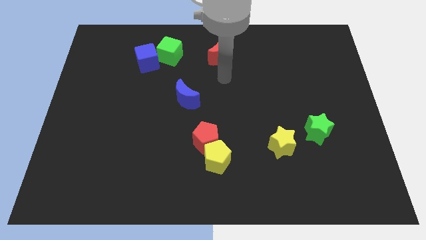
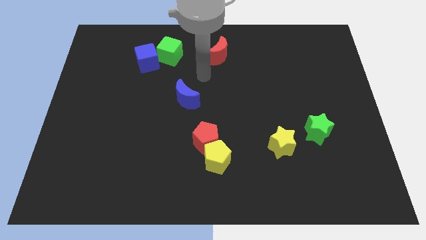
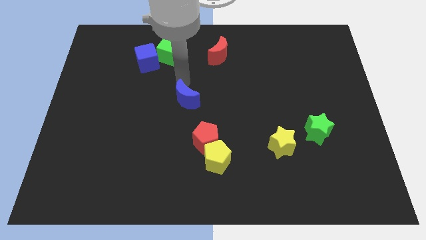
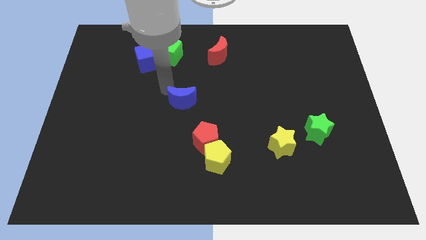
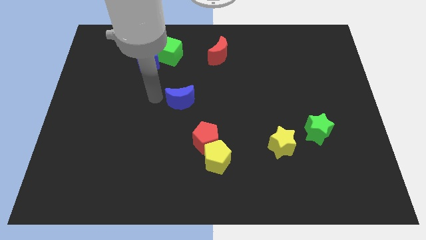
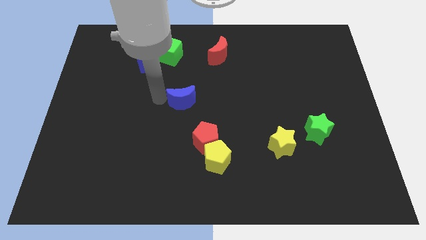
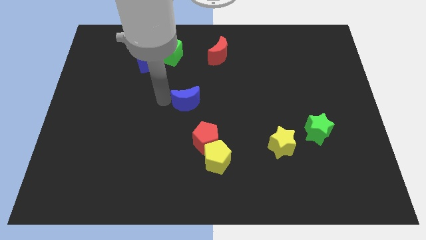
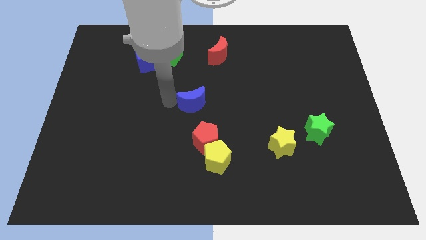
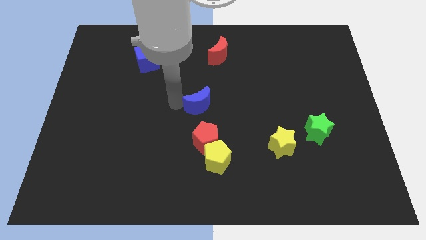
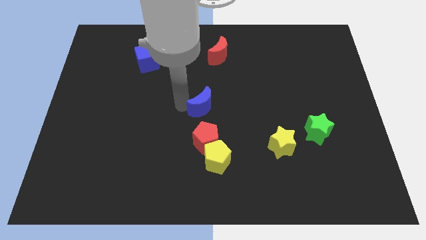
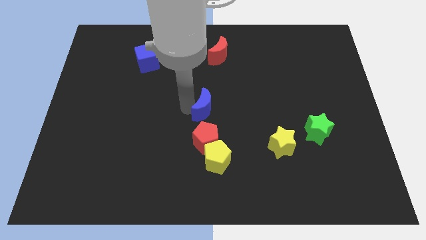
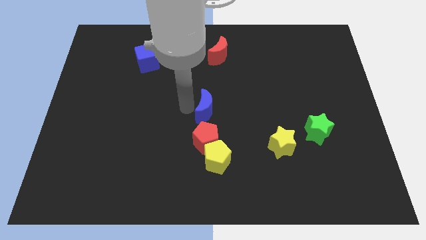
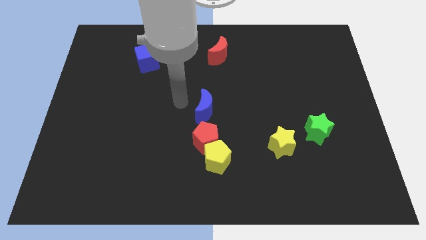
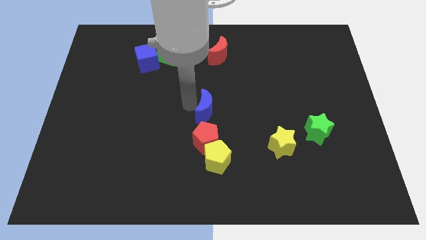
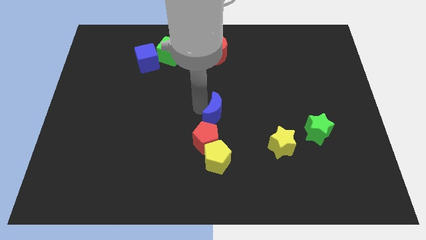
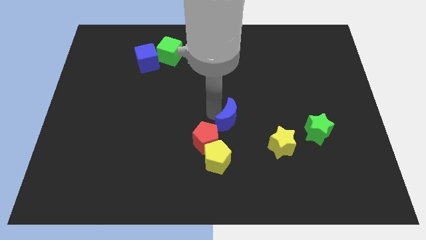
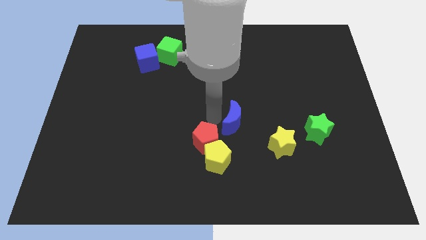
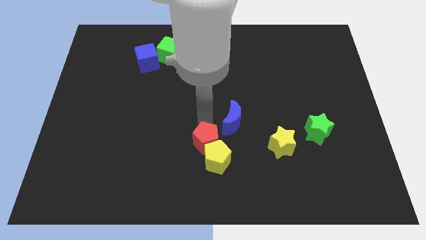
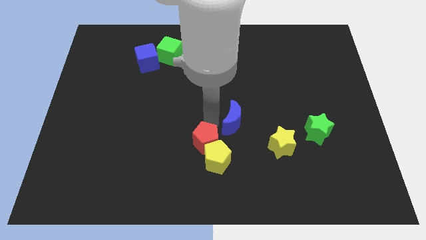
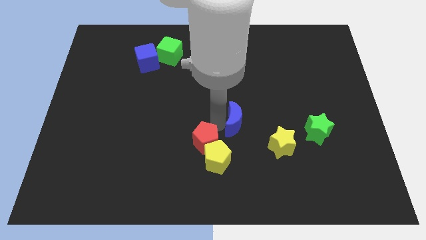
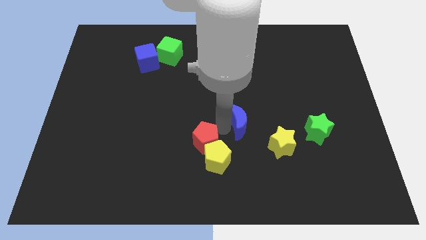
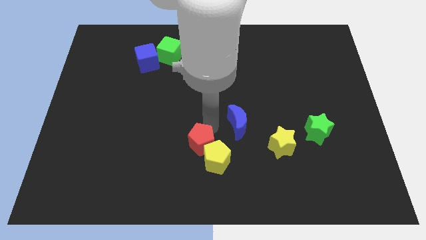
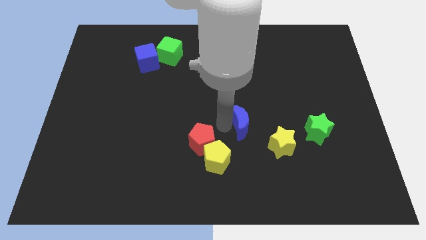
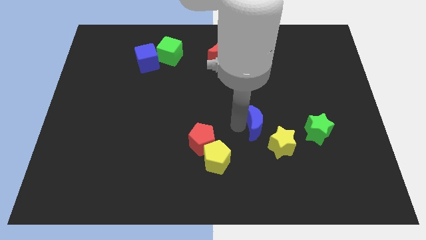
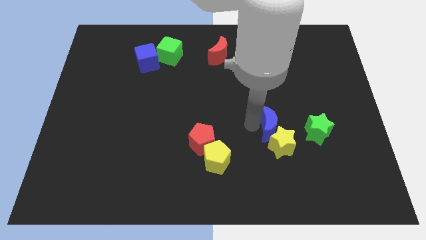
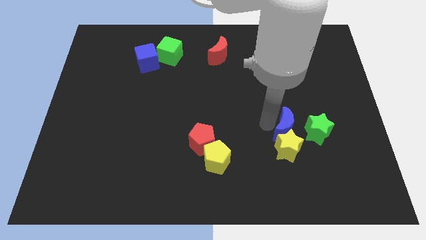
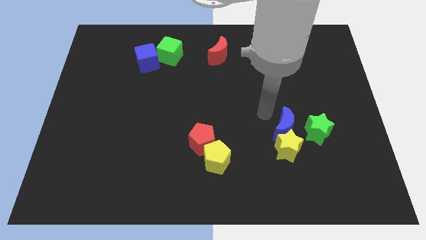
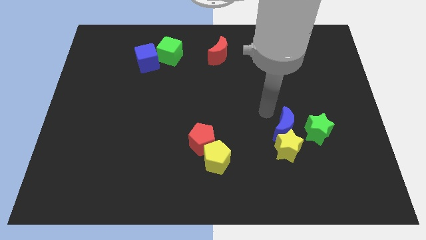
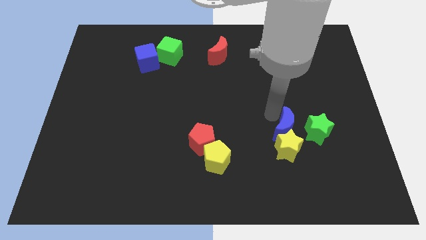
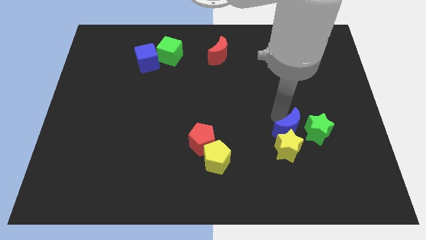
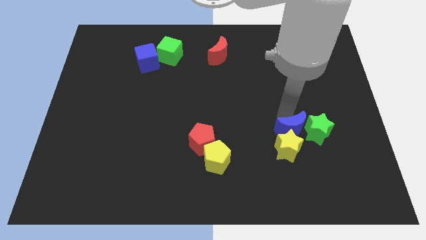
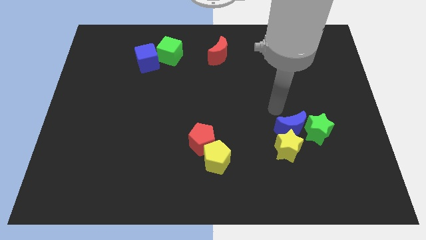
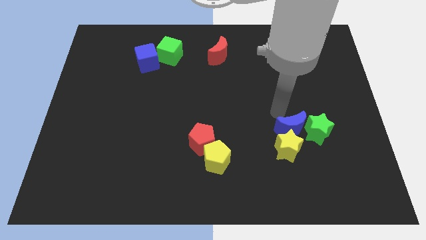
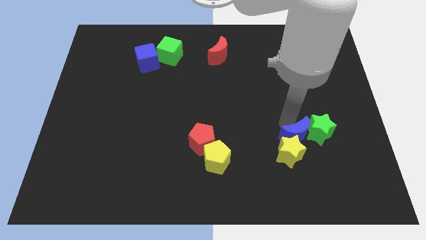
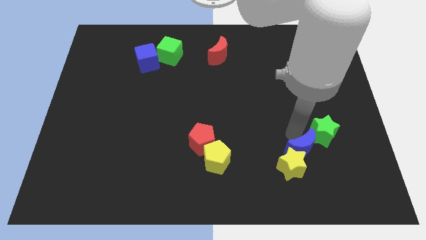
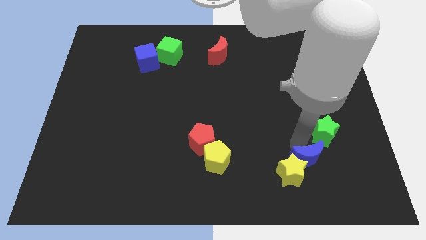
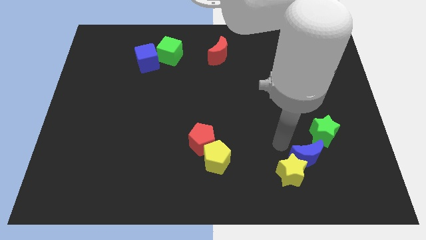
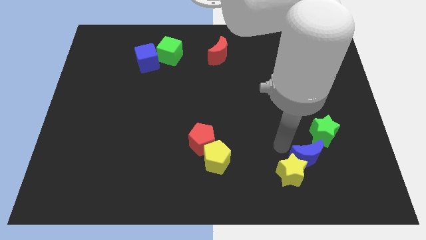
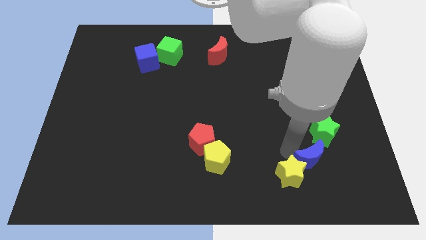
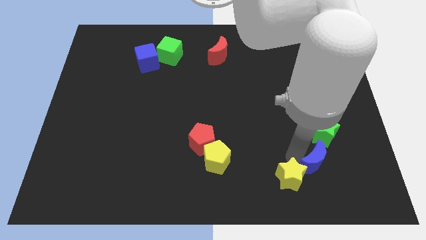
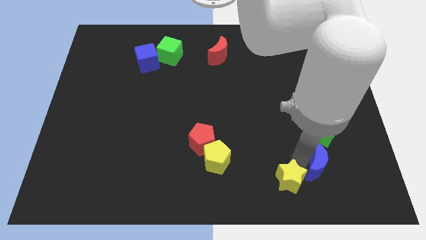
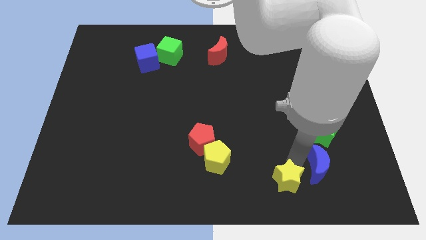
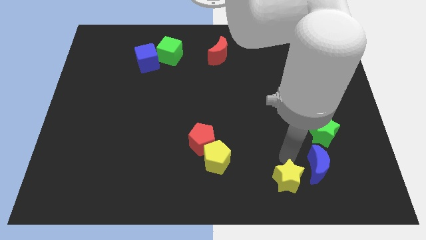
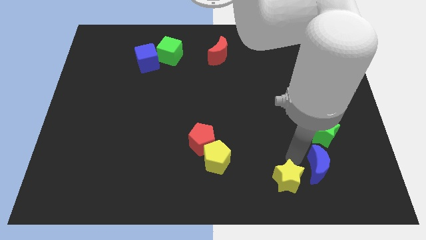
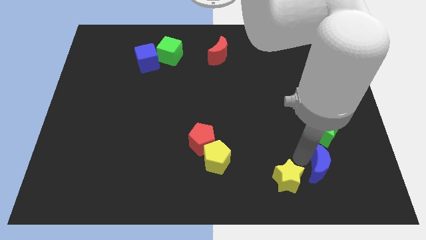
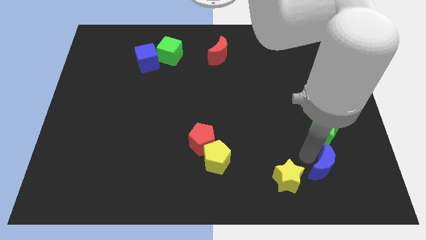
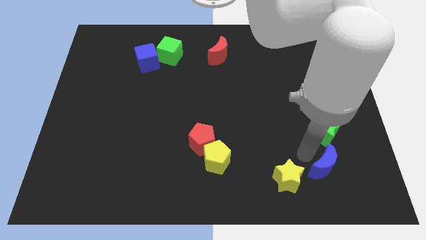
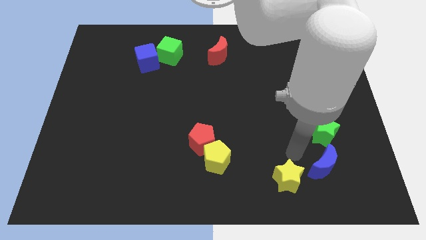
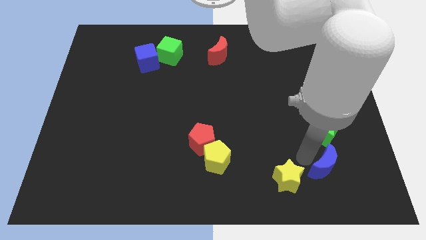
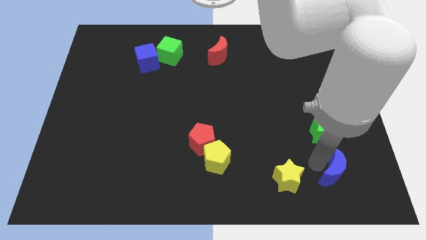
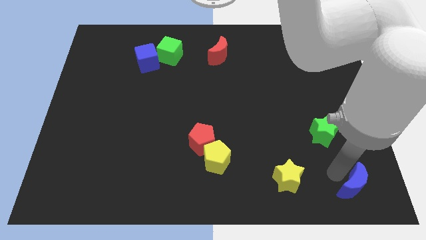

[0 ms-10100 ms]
move the blue moon to the bottom right corner

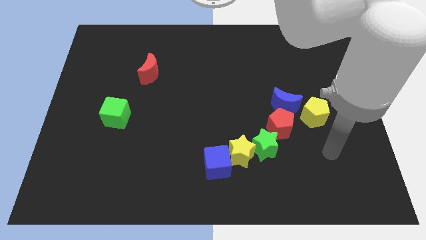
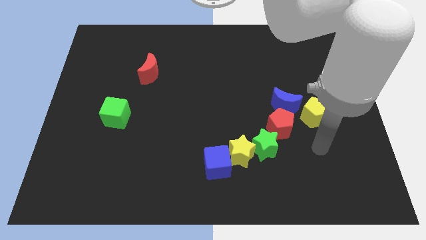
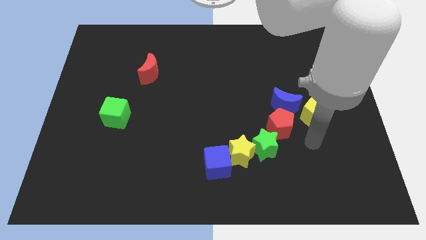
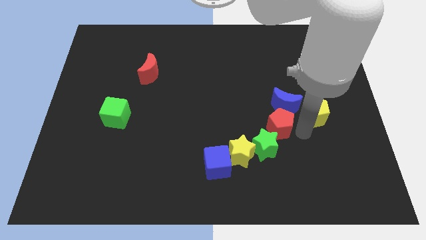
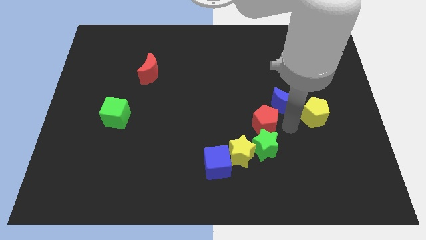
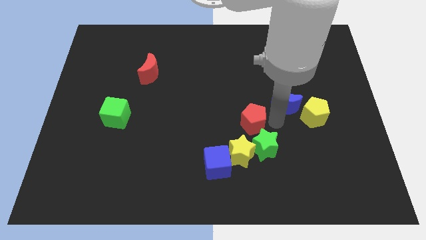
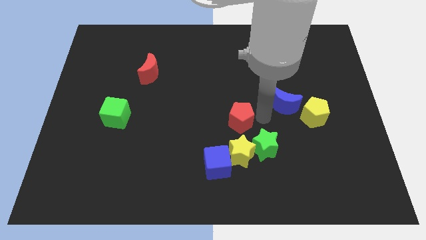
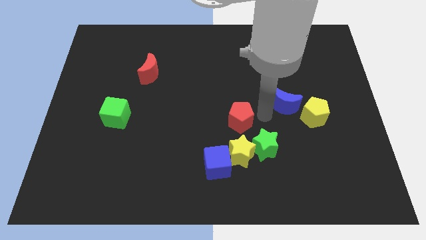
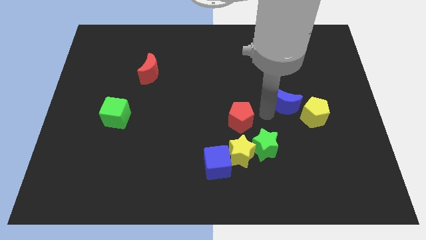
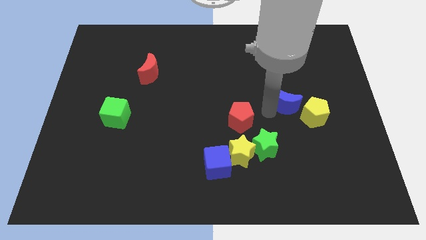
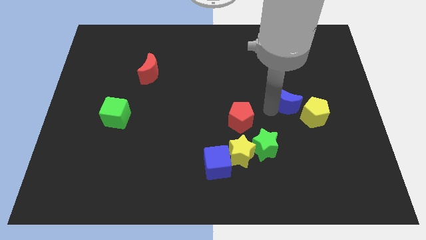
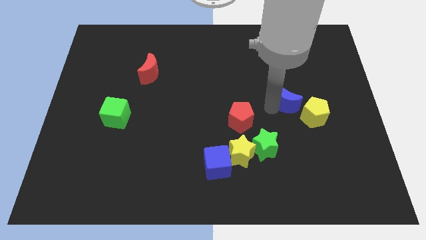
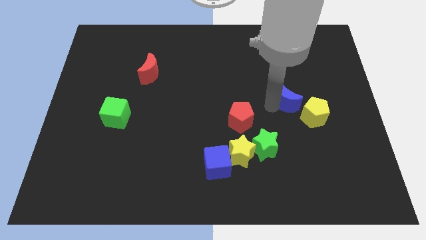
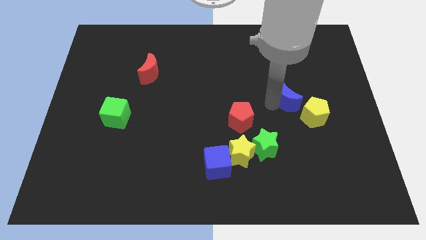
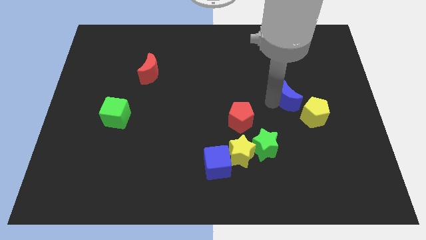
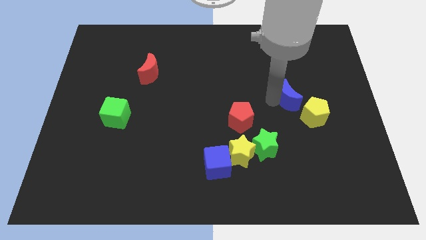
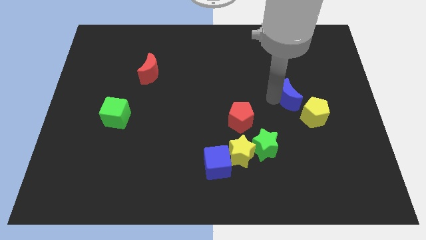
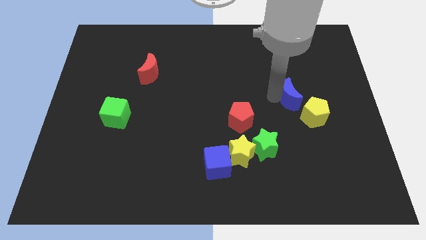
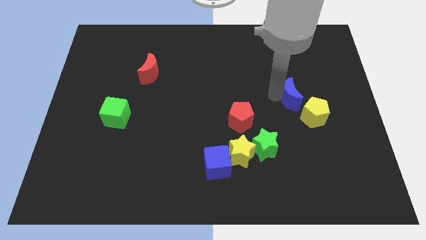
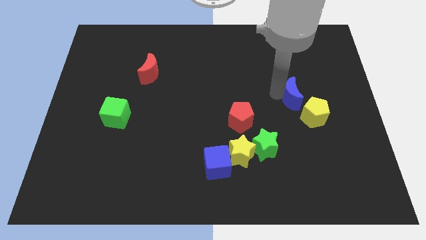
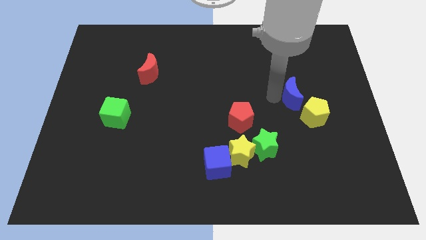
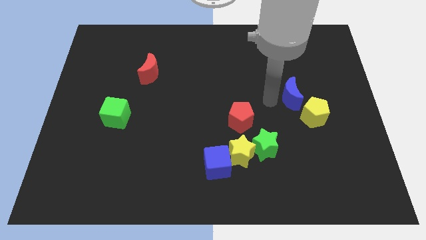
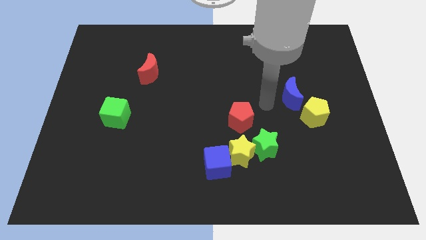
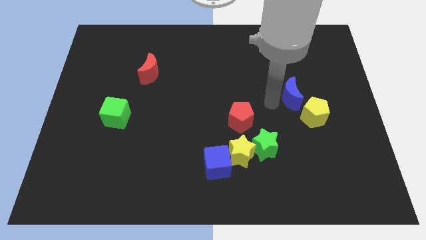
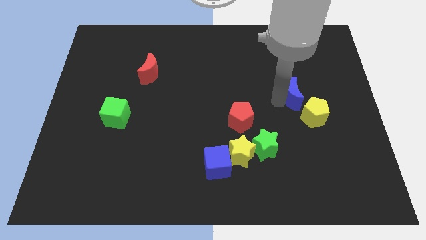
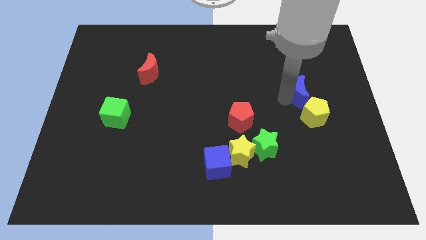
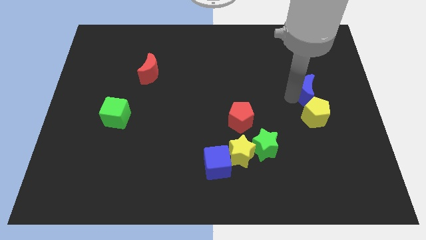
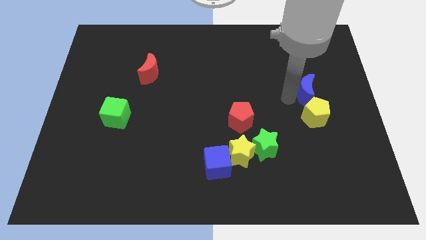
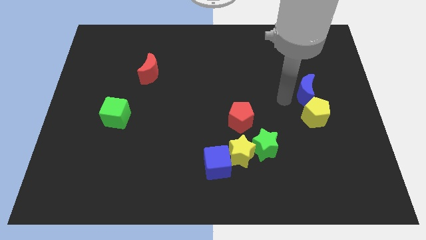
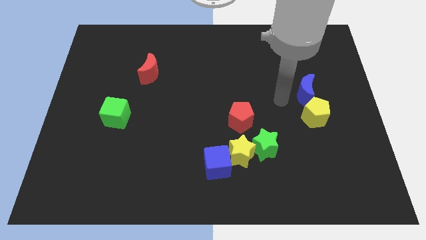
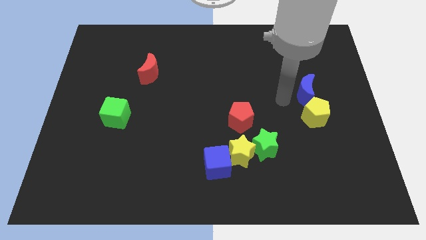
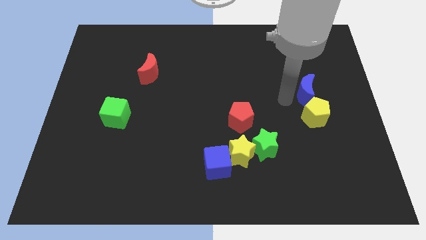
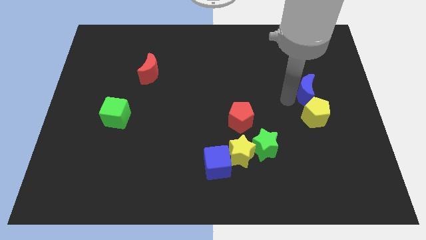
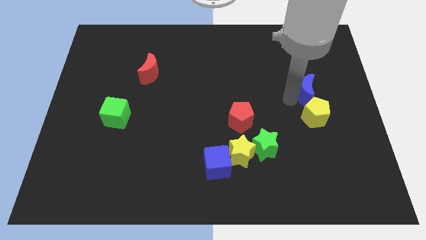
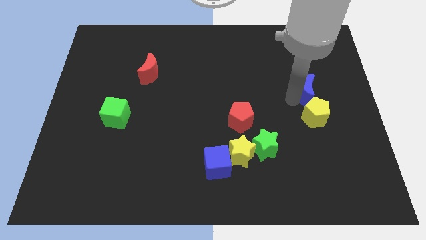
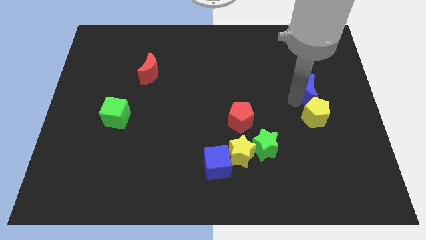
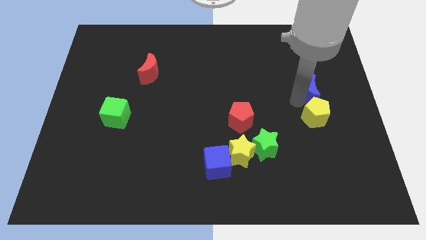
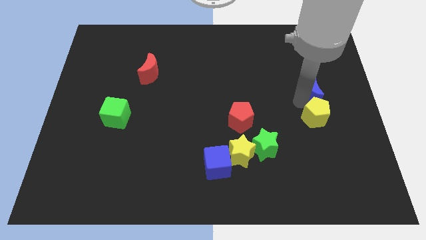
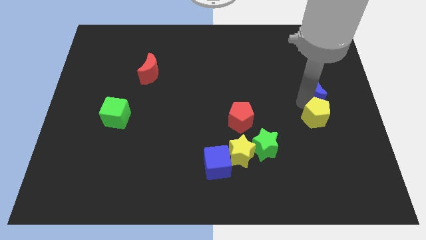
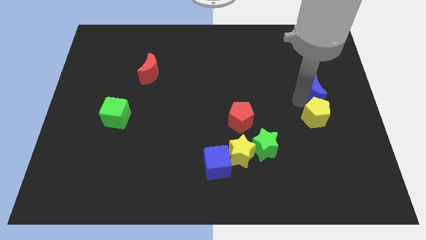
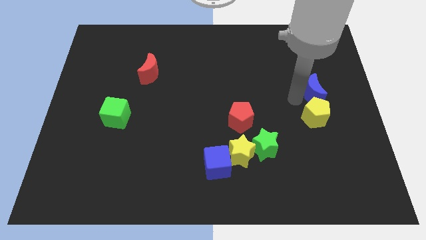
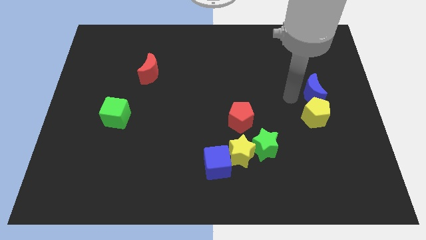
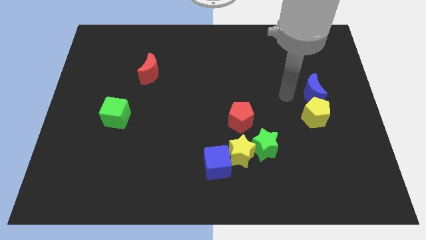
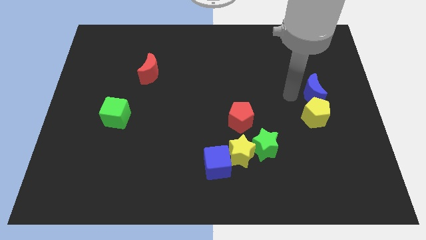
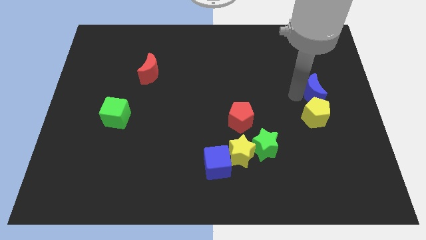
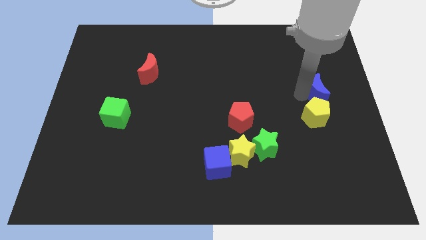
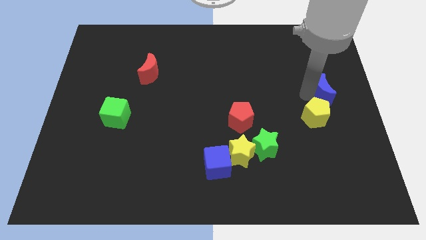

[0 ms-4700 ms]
move the blue moon to the right side
